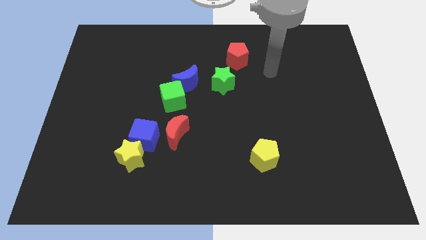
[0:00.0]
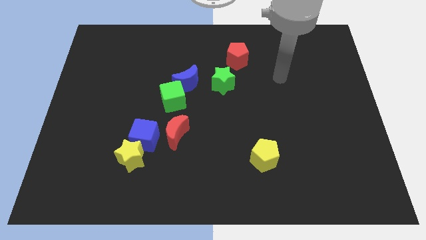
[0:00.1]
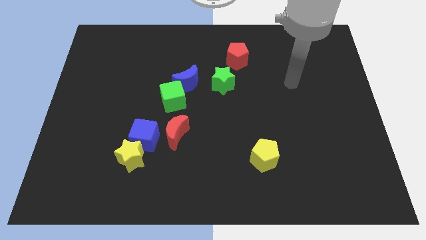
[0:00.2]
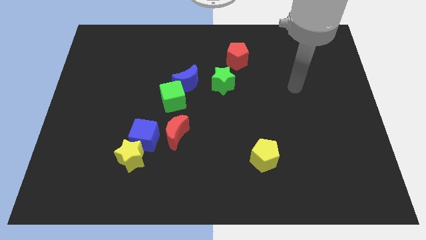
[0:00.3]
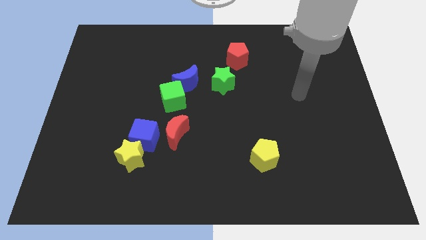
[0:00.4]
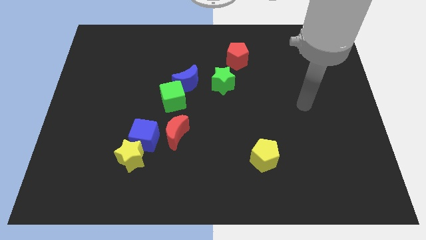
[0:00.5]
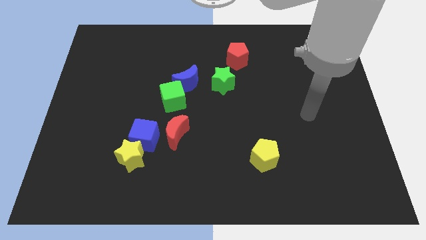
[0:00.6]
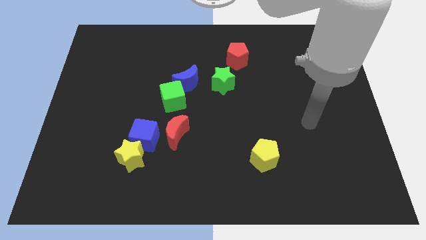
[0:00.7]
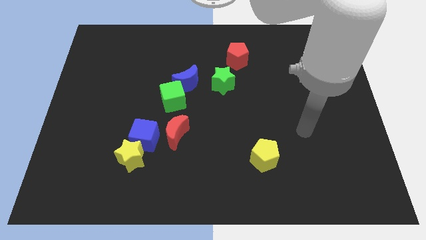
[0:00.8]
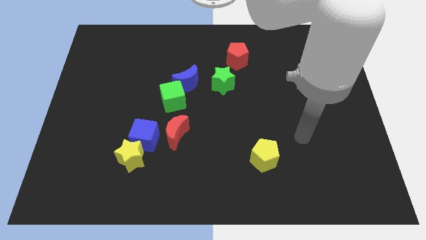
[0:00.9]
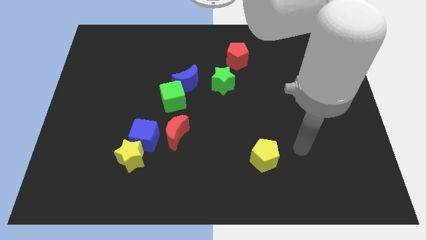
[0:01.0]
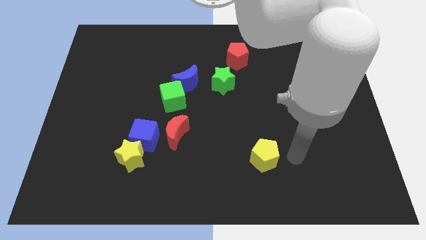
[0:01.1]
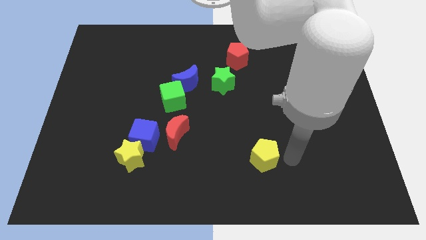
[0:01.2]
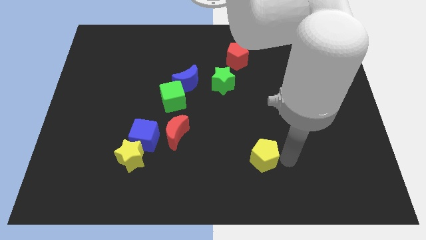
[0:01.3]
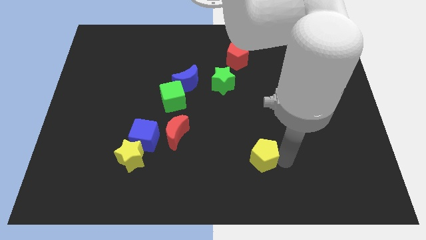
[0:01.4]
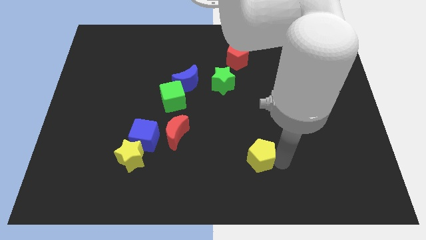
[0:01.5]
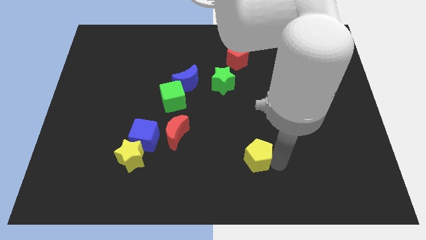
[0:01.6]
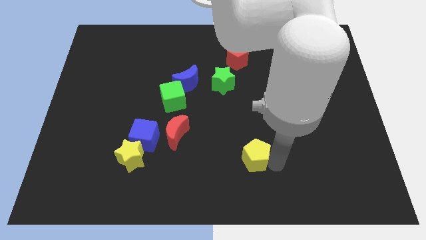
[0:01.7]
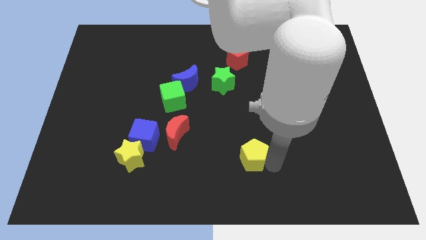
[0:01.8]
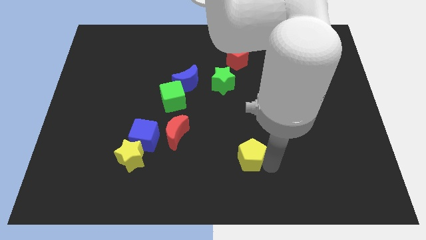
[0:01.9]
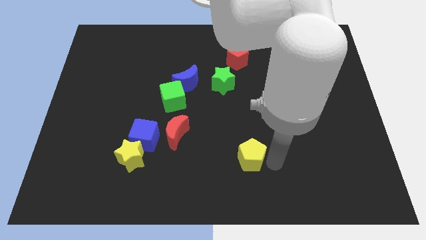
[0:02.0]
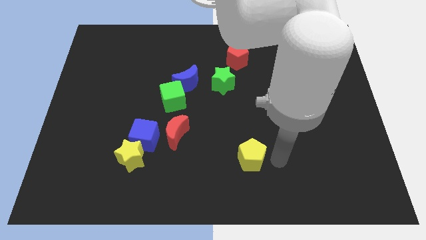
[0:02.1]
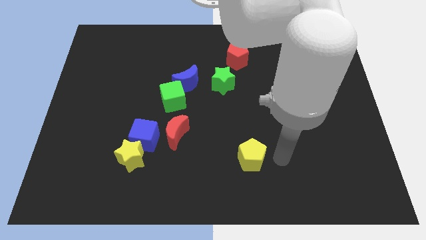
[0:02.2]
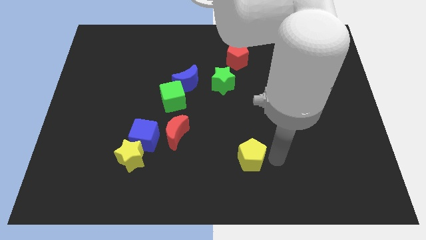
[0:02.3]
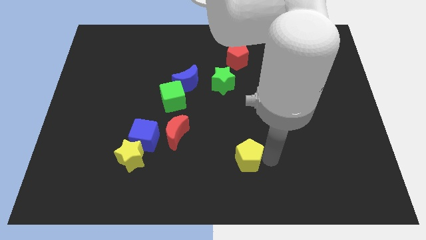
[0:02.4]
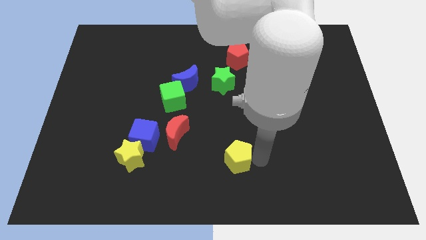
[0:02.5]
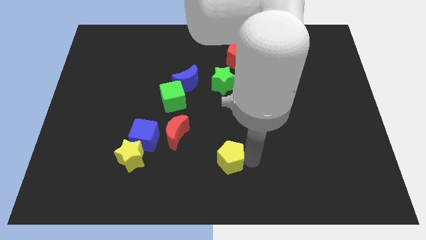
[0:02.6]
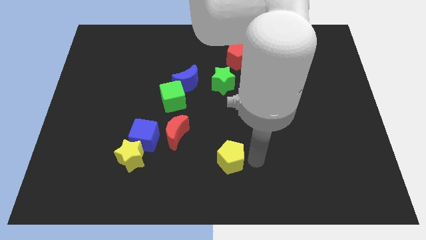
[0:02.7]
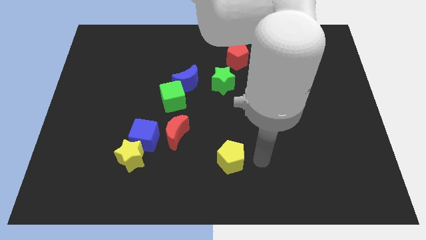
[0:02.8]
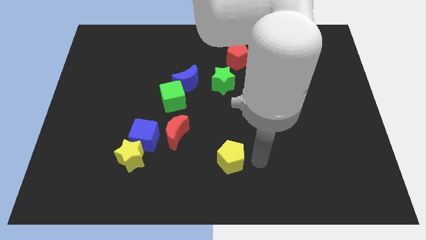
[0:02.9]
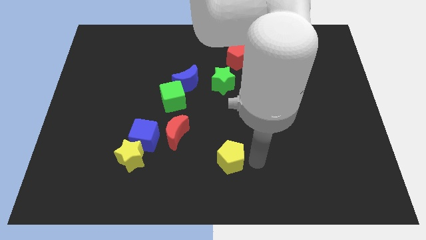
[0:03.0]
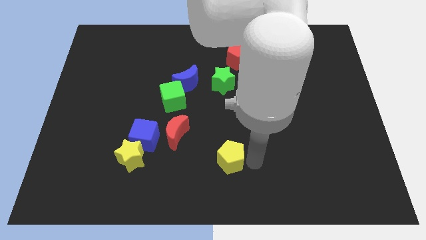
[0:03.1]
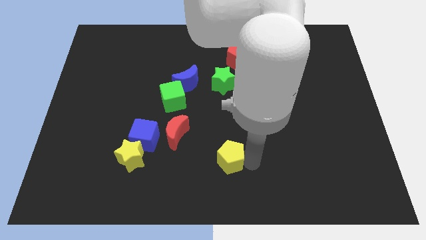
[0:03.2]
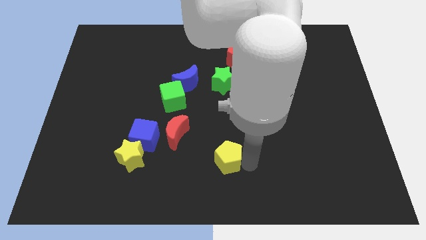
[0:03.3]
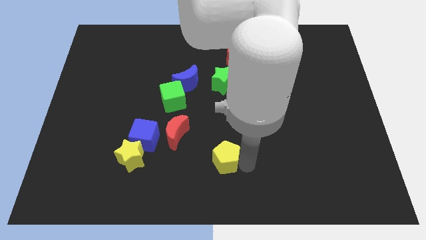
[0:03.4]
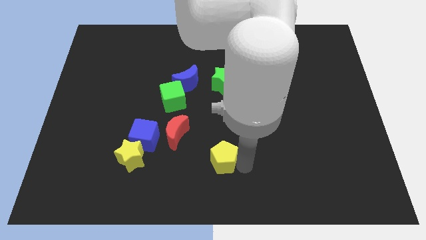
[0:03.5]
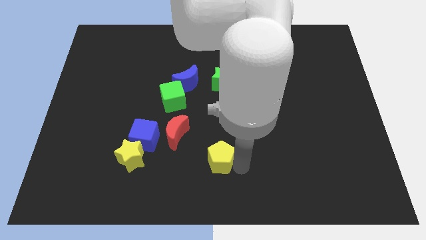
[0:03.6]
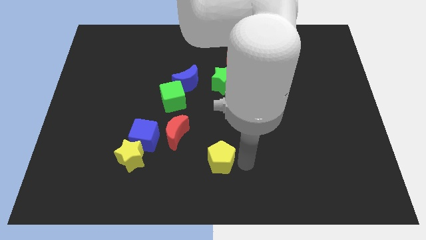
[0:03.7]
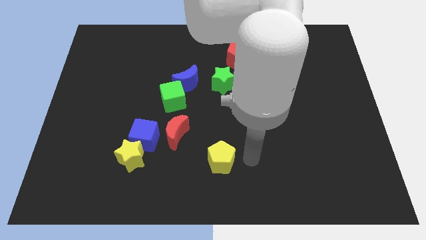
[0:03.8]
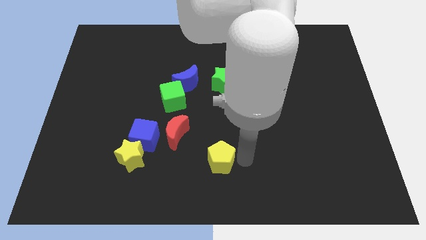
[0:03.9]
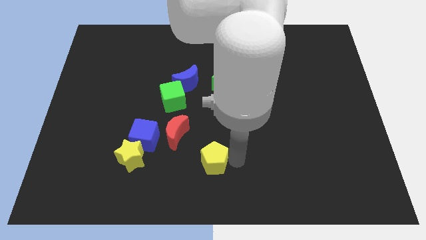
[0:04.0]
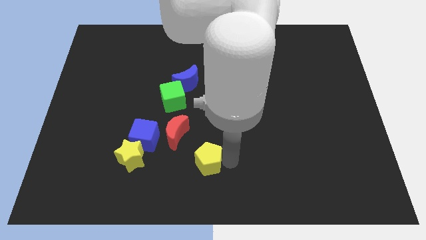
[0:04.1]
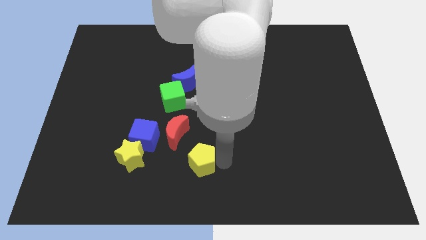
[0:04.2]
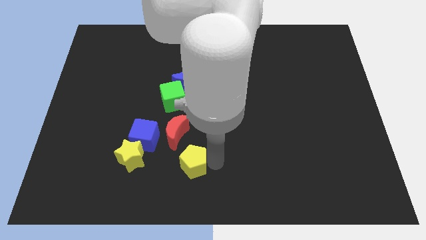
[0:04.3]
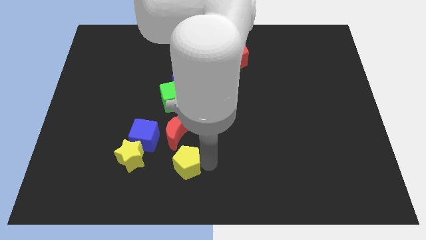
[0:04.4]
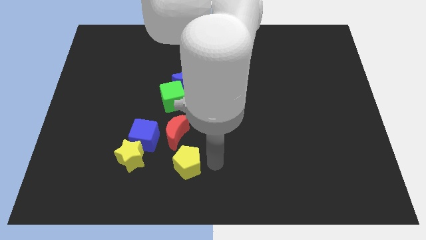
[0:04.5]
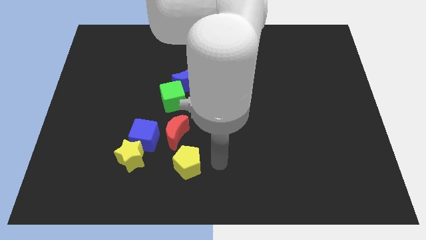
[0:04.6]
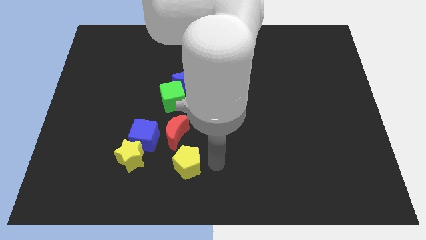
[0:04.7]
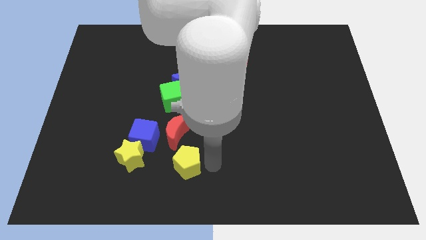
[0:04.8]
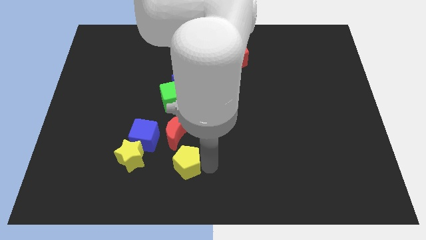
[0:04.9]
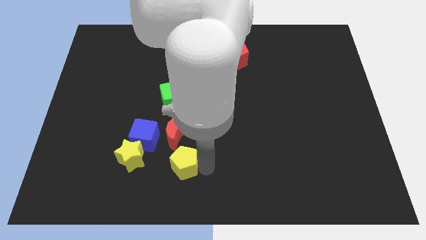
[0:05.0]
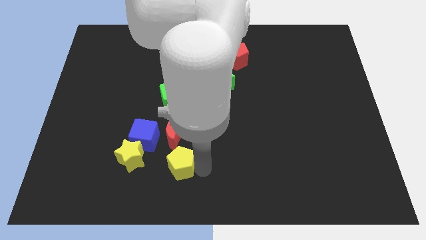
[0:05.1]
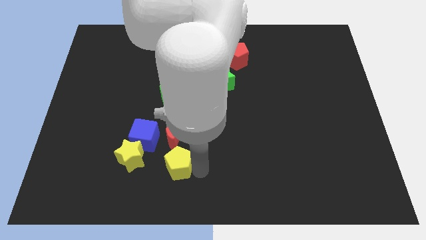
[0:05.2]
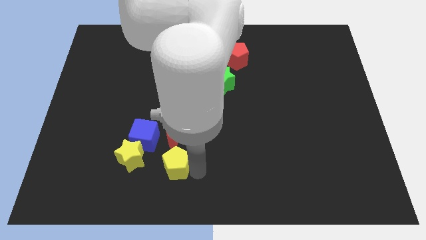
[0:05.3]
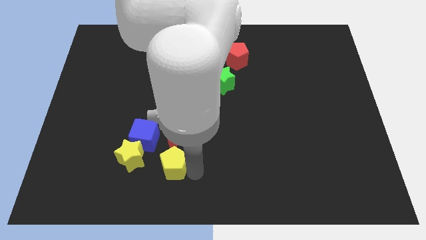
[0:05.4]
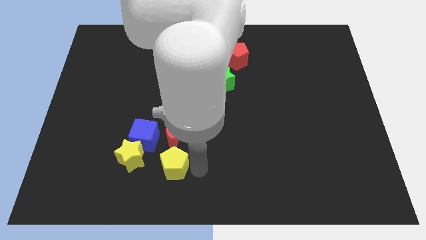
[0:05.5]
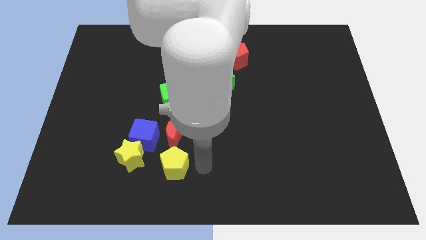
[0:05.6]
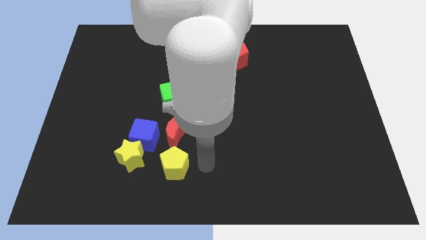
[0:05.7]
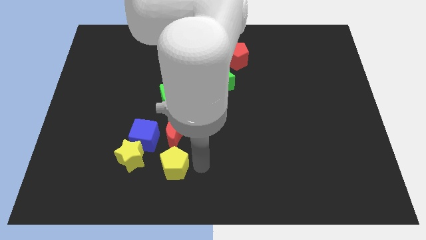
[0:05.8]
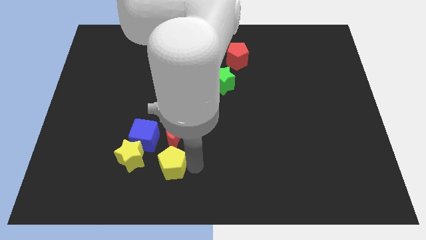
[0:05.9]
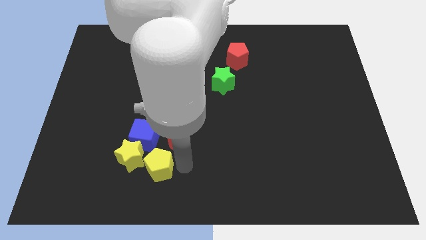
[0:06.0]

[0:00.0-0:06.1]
move the yellow pentagon left

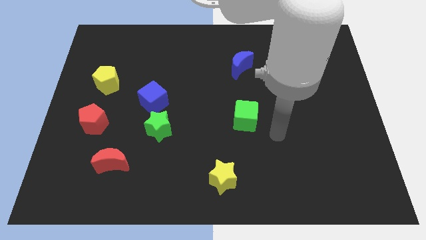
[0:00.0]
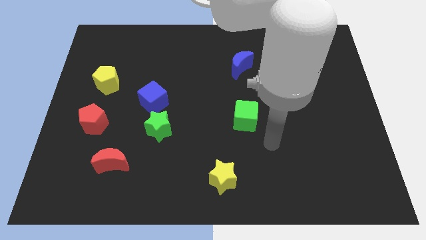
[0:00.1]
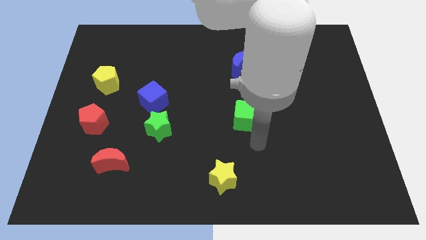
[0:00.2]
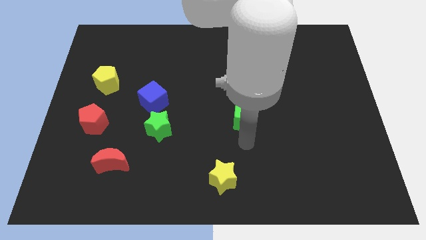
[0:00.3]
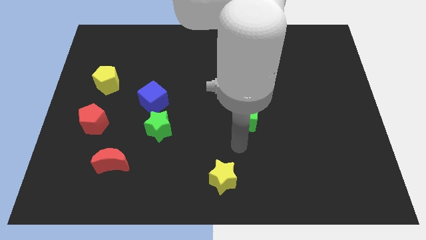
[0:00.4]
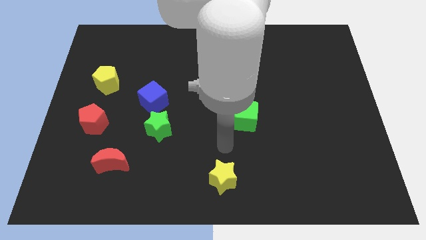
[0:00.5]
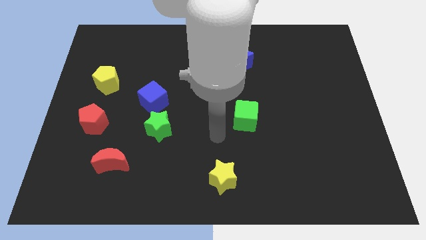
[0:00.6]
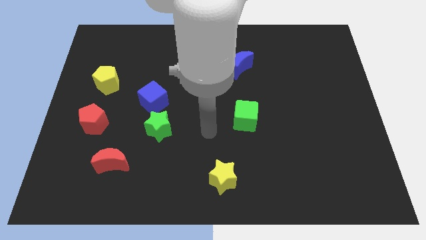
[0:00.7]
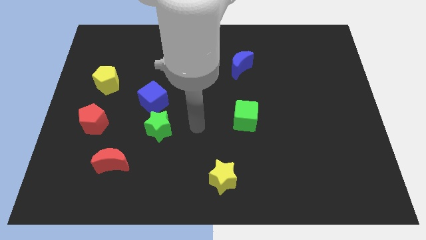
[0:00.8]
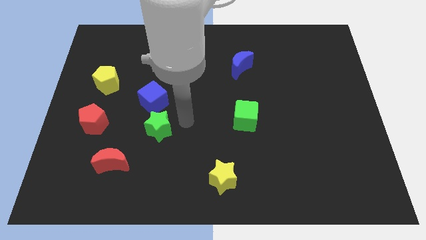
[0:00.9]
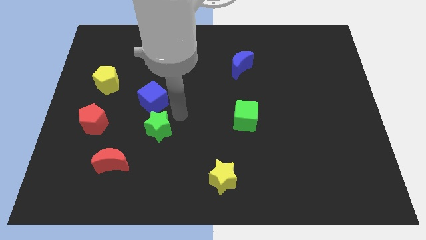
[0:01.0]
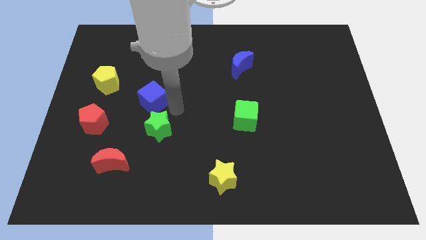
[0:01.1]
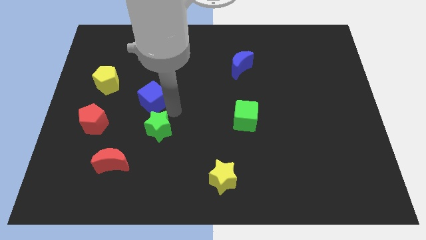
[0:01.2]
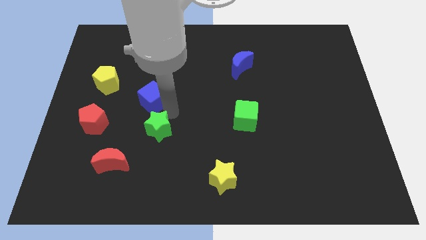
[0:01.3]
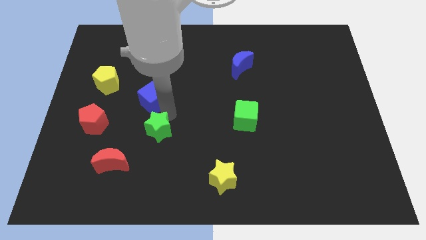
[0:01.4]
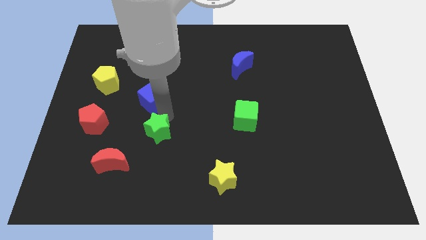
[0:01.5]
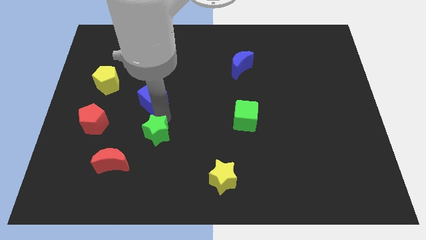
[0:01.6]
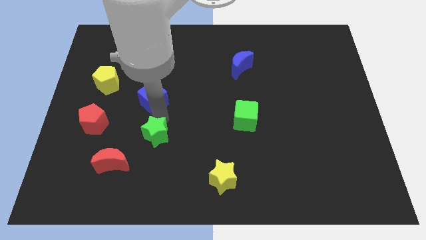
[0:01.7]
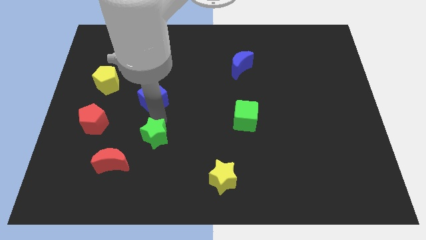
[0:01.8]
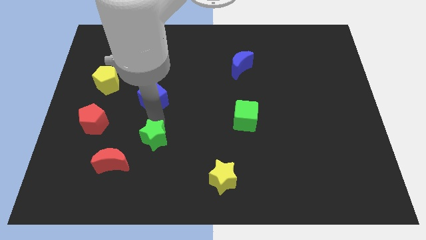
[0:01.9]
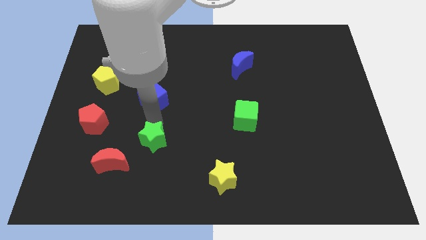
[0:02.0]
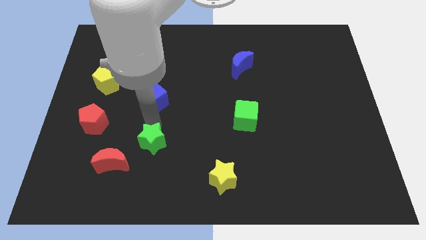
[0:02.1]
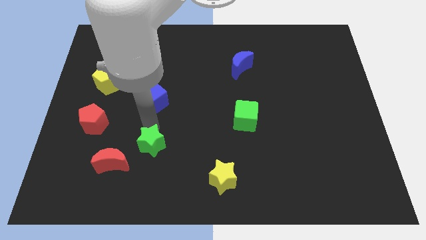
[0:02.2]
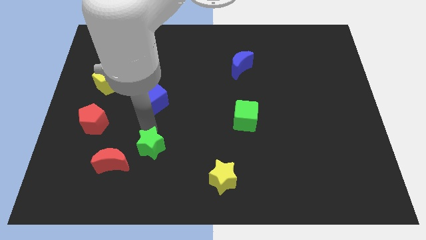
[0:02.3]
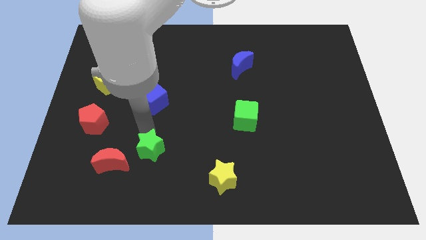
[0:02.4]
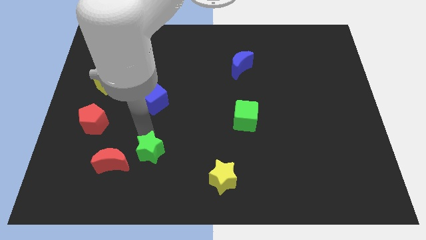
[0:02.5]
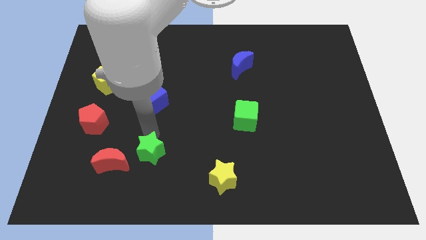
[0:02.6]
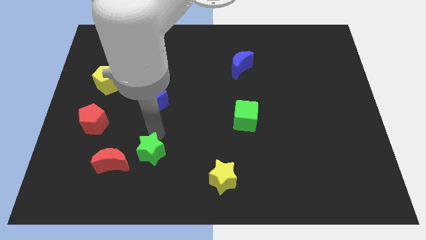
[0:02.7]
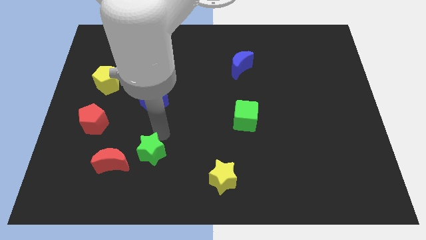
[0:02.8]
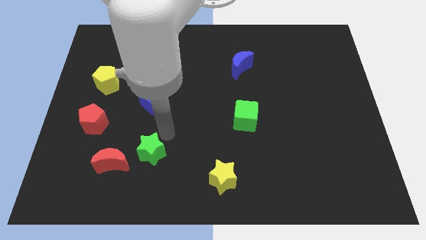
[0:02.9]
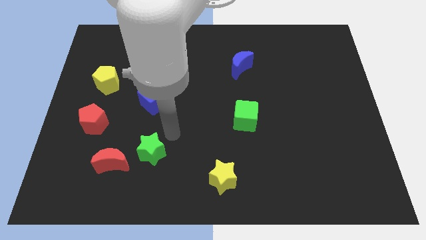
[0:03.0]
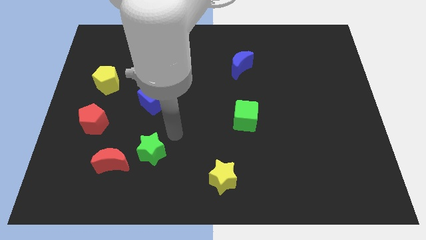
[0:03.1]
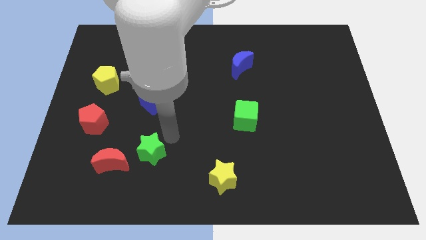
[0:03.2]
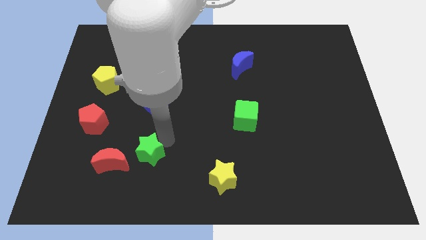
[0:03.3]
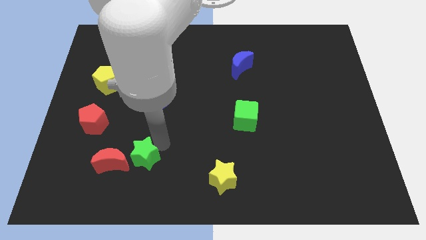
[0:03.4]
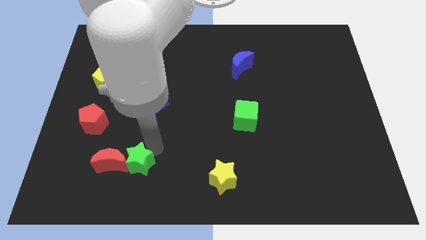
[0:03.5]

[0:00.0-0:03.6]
slightly slide the green star diagonally down and left
